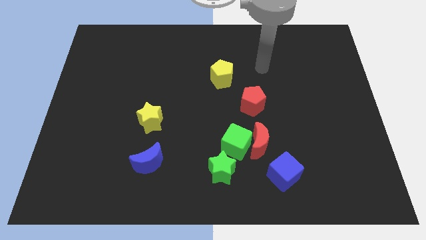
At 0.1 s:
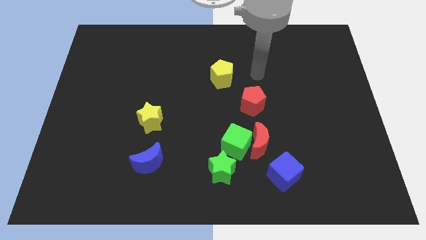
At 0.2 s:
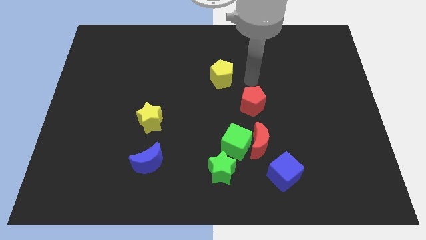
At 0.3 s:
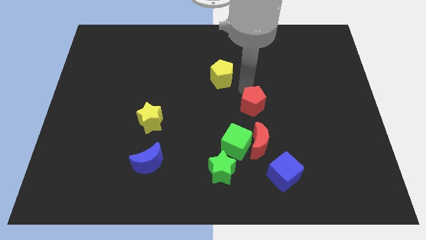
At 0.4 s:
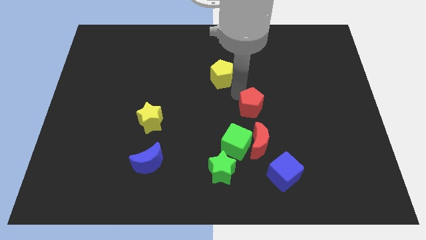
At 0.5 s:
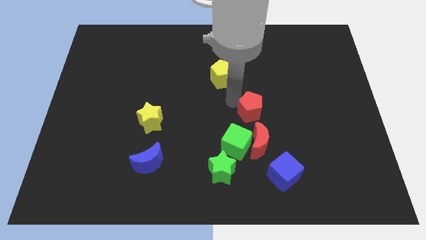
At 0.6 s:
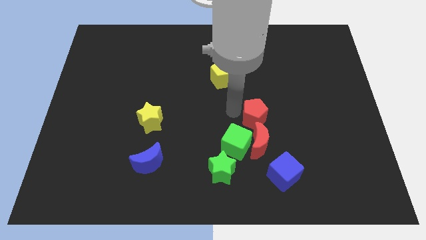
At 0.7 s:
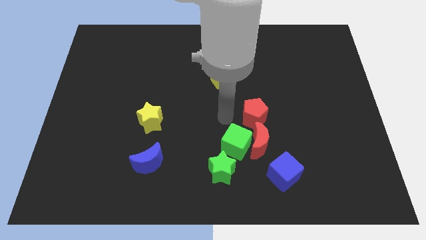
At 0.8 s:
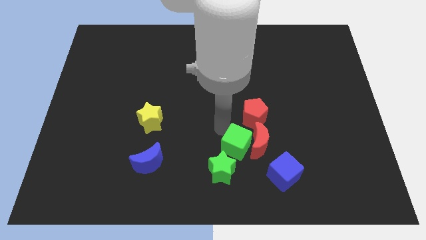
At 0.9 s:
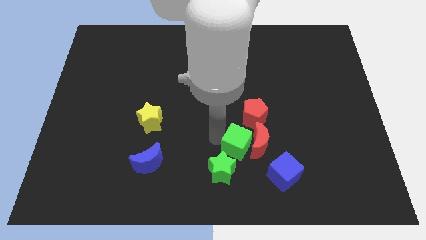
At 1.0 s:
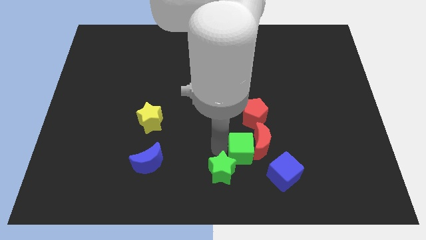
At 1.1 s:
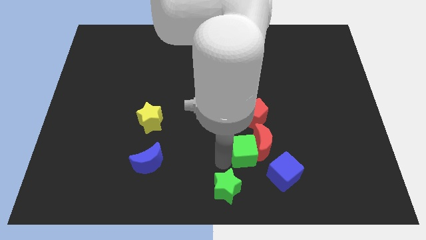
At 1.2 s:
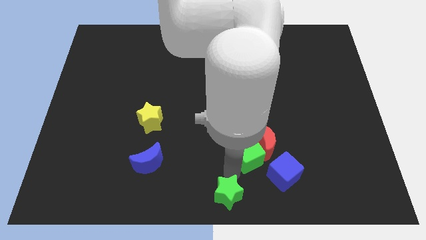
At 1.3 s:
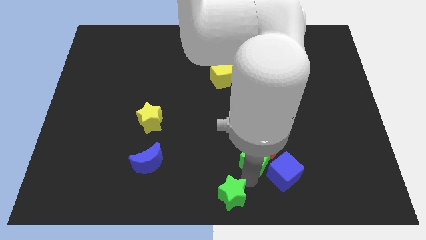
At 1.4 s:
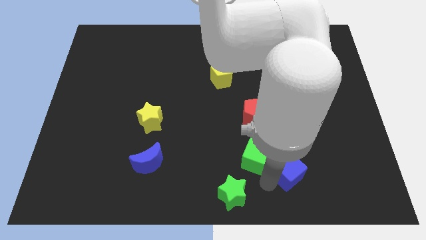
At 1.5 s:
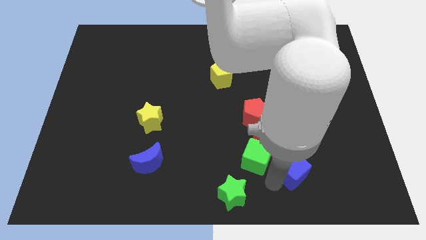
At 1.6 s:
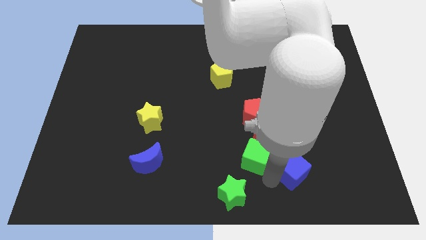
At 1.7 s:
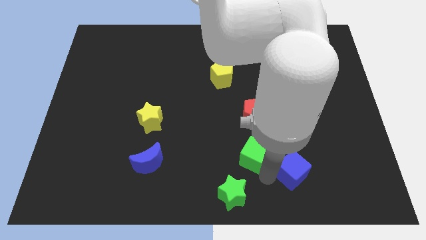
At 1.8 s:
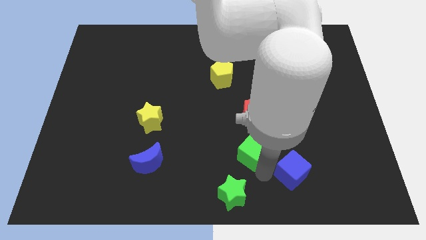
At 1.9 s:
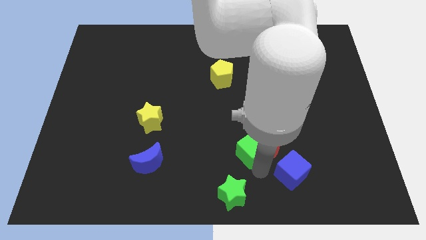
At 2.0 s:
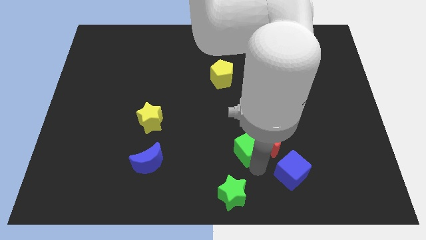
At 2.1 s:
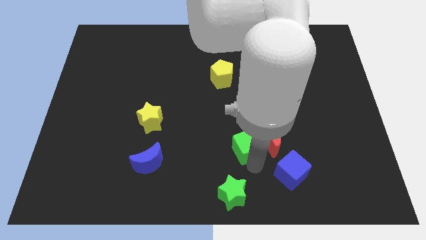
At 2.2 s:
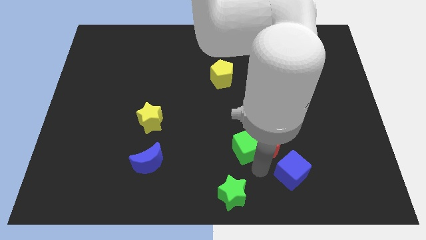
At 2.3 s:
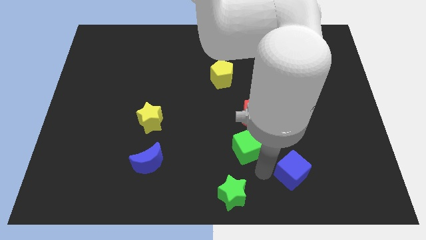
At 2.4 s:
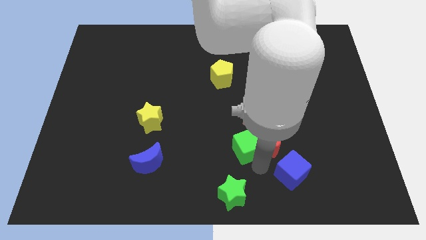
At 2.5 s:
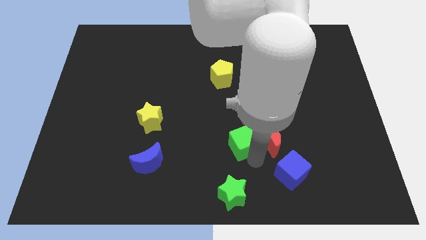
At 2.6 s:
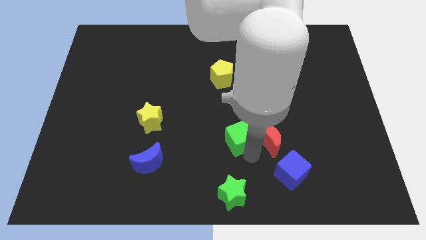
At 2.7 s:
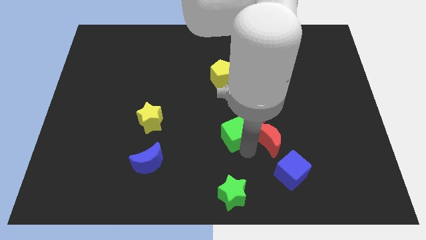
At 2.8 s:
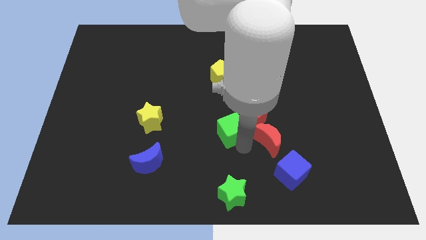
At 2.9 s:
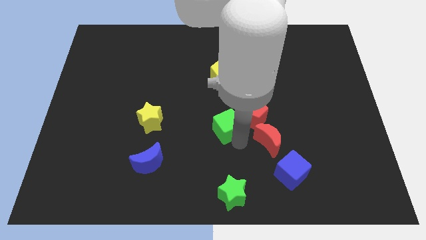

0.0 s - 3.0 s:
separate the green cube from the red moon and green star

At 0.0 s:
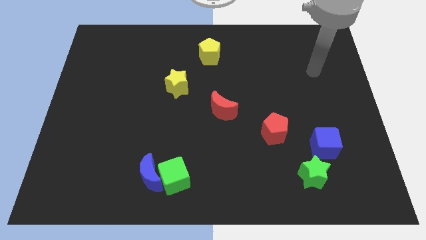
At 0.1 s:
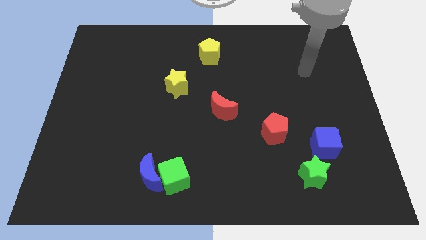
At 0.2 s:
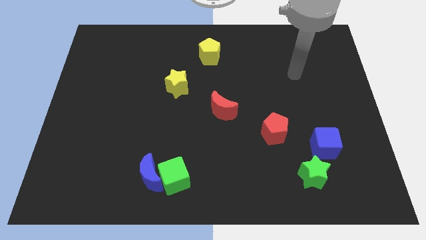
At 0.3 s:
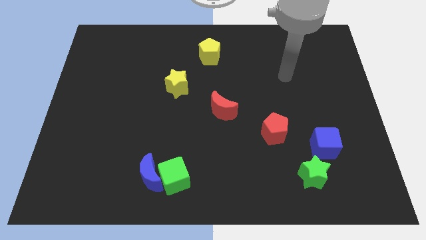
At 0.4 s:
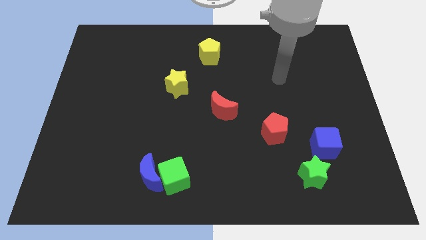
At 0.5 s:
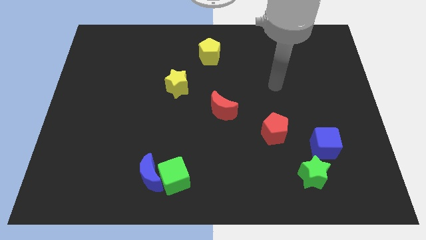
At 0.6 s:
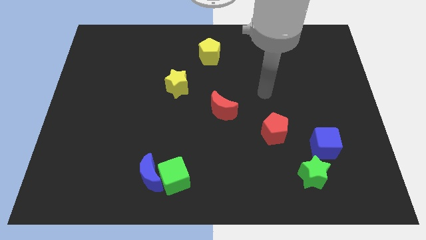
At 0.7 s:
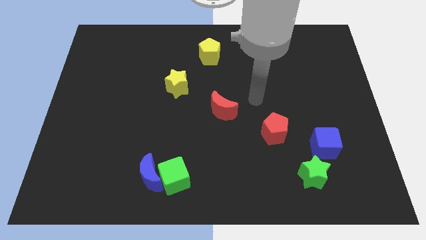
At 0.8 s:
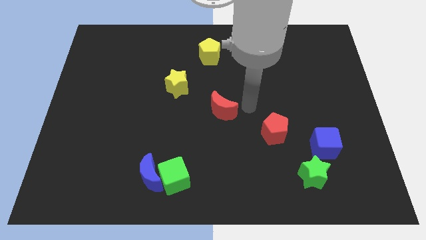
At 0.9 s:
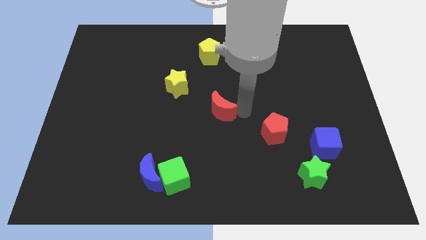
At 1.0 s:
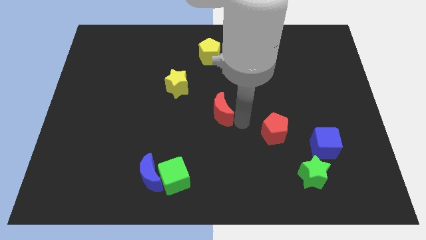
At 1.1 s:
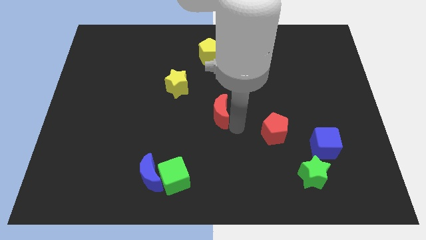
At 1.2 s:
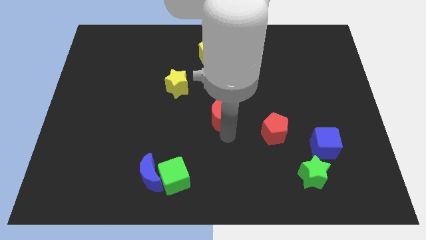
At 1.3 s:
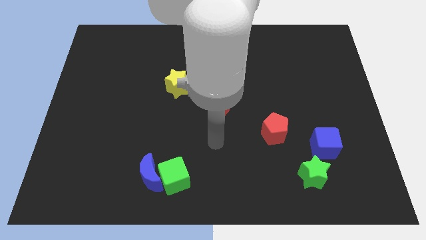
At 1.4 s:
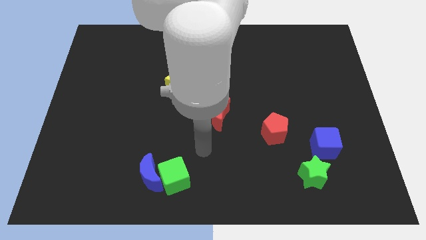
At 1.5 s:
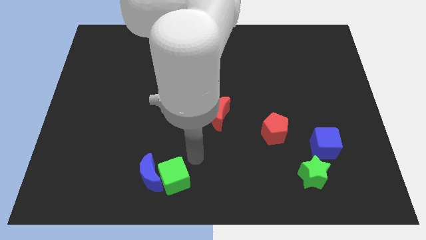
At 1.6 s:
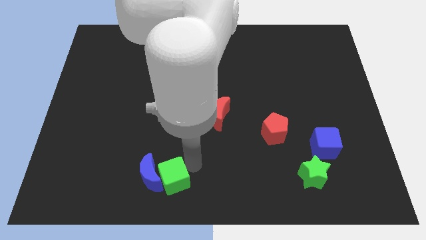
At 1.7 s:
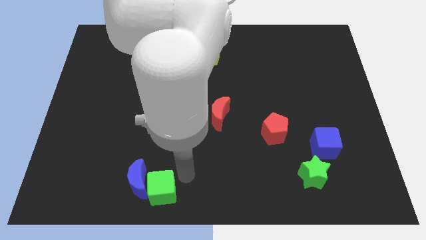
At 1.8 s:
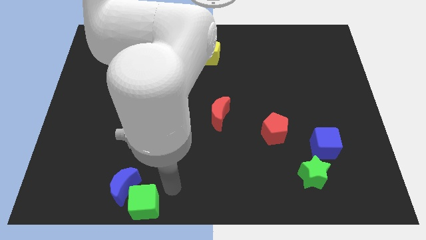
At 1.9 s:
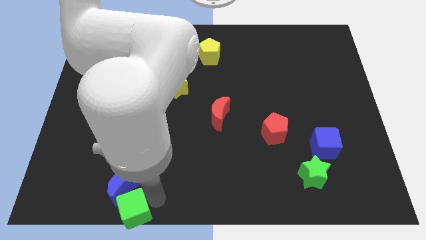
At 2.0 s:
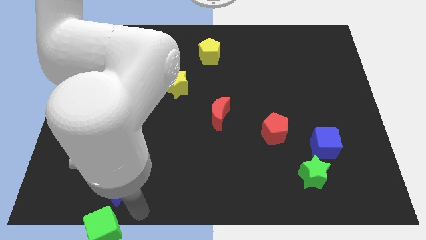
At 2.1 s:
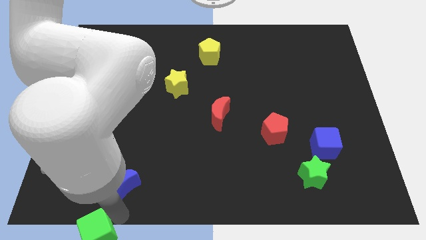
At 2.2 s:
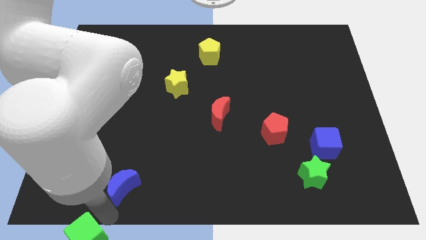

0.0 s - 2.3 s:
separate the blue moon from the green cube

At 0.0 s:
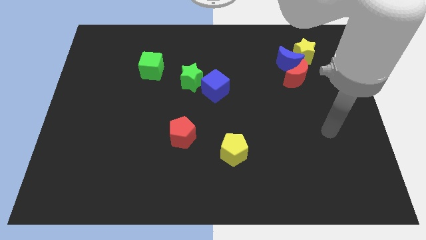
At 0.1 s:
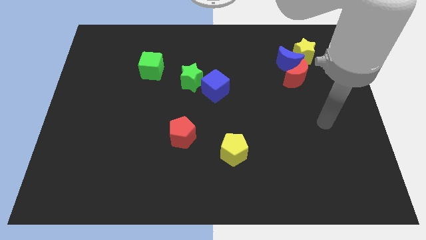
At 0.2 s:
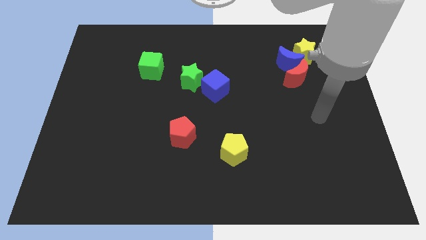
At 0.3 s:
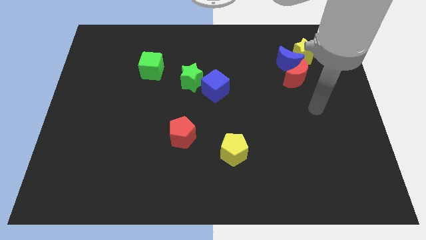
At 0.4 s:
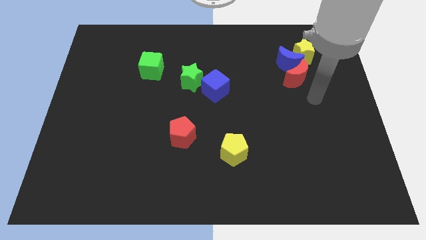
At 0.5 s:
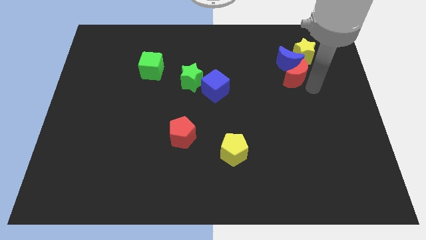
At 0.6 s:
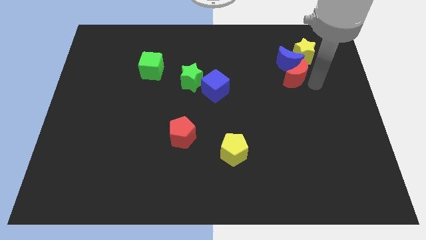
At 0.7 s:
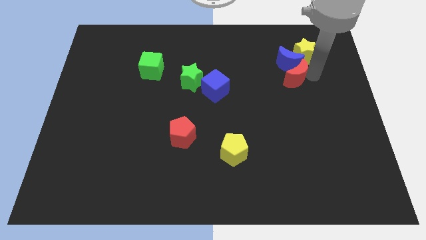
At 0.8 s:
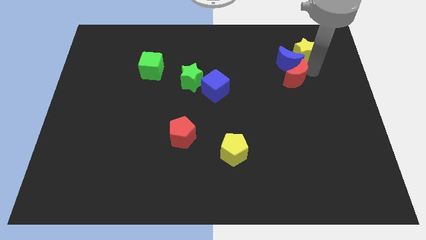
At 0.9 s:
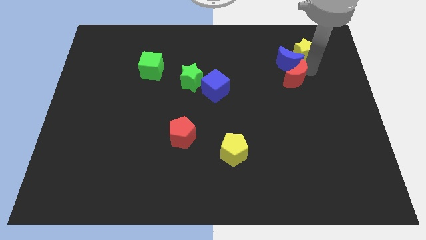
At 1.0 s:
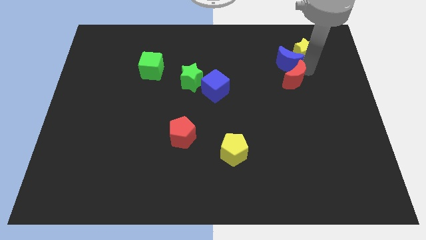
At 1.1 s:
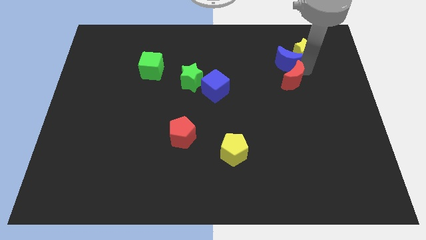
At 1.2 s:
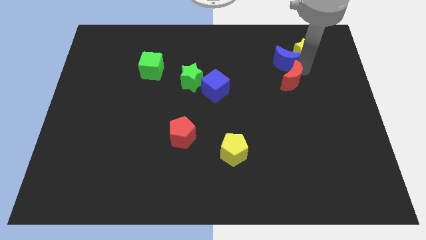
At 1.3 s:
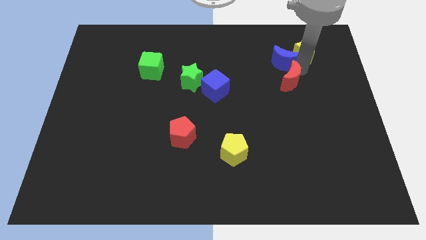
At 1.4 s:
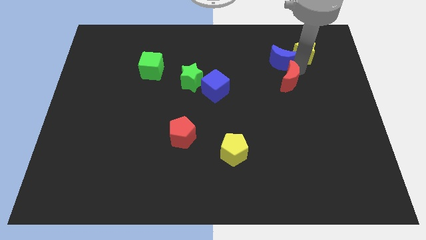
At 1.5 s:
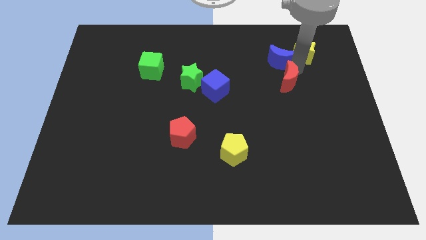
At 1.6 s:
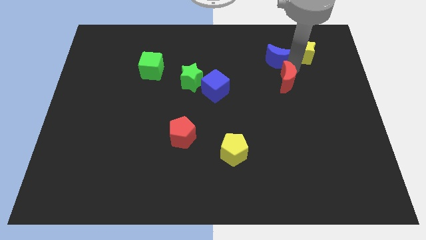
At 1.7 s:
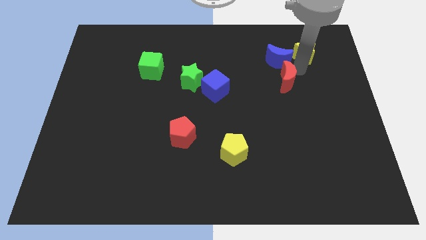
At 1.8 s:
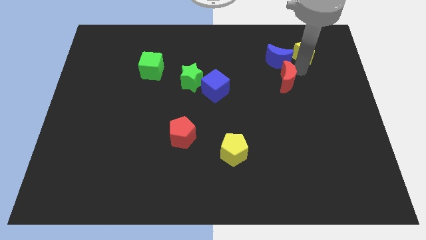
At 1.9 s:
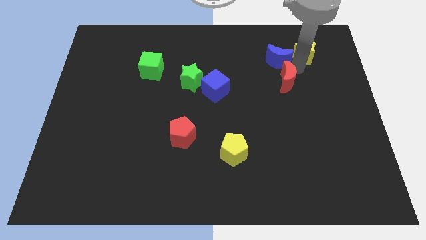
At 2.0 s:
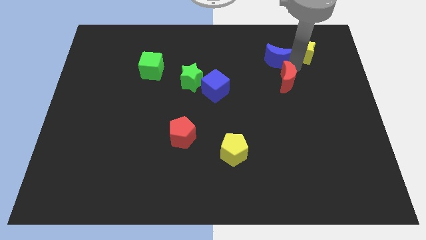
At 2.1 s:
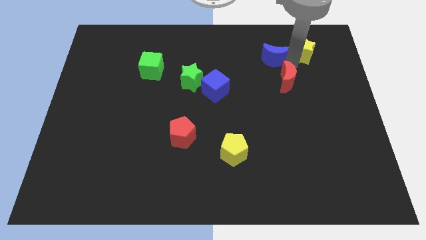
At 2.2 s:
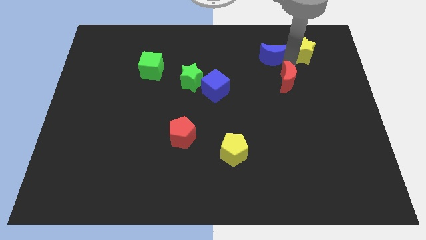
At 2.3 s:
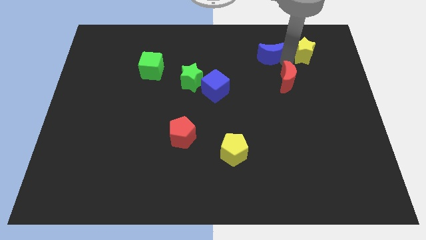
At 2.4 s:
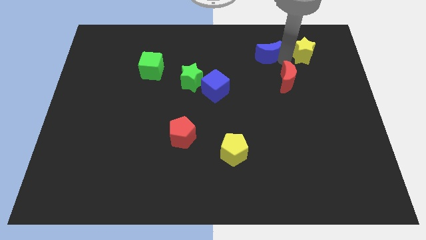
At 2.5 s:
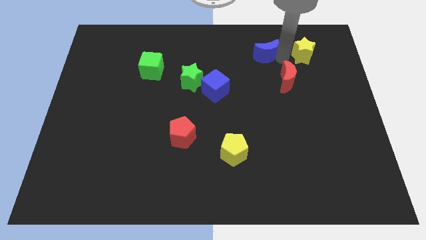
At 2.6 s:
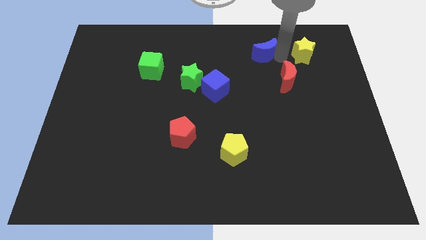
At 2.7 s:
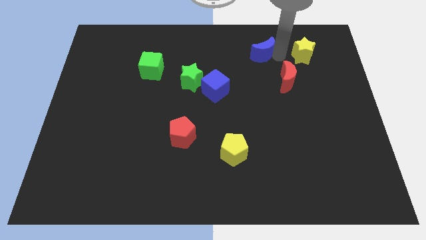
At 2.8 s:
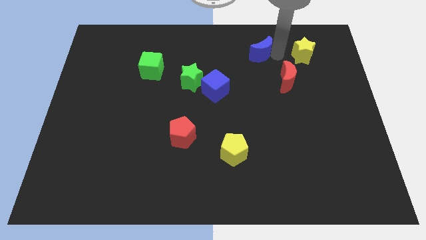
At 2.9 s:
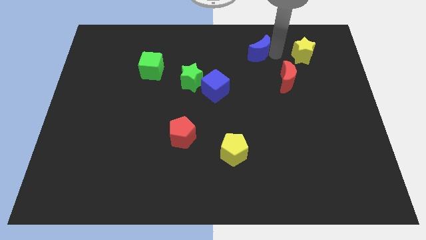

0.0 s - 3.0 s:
move the blue moon away from the yellow star and red moon

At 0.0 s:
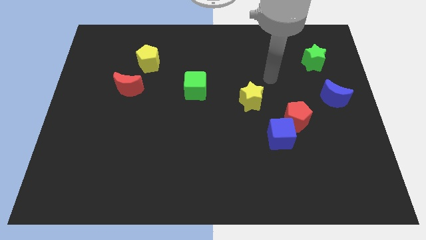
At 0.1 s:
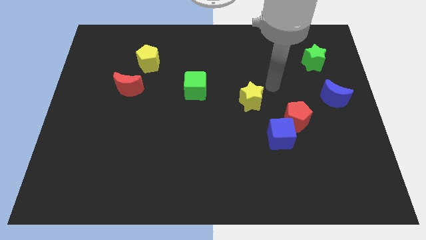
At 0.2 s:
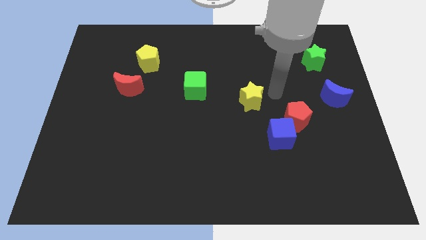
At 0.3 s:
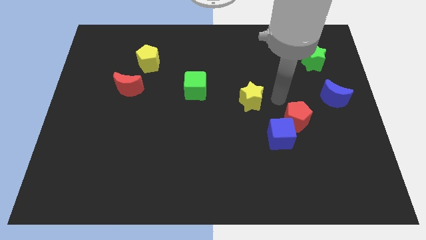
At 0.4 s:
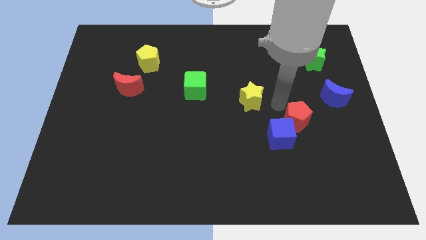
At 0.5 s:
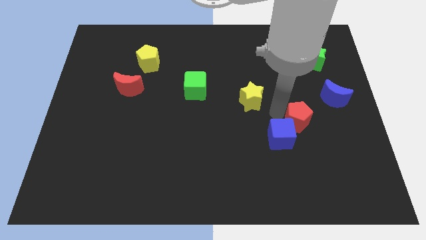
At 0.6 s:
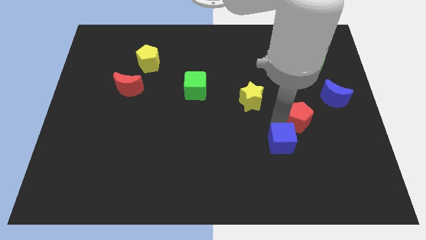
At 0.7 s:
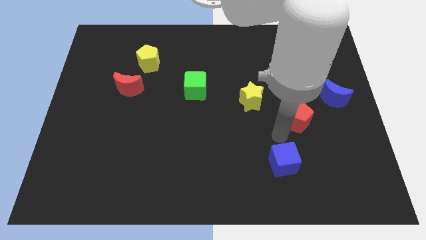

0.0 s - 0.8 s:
pull the red pentagon apart from the blue cube

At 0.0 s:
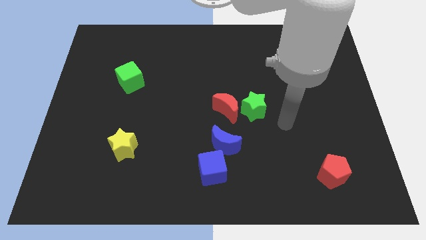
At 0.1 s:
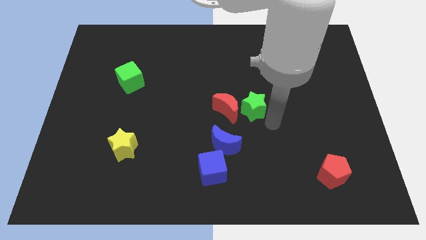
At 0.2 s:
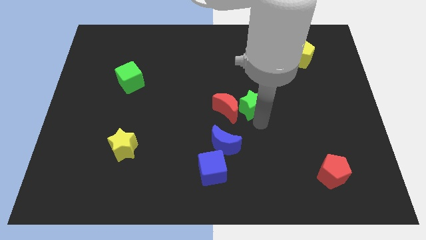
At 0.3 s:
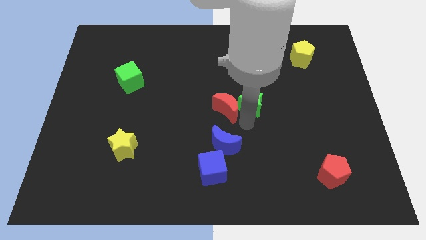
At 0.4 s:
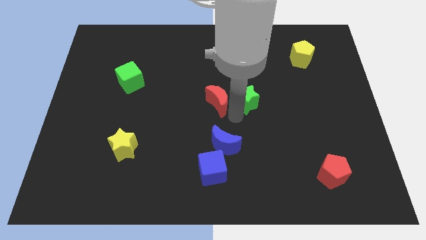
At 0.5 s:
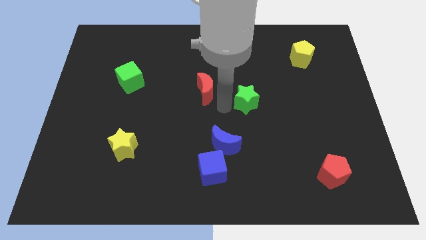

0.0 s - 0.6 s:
pull the green star apart from the red moon
